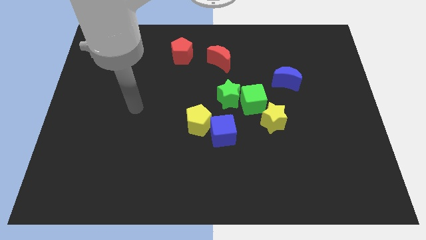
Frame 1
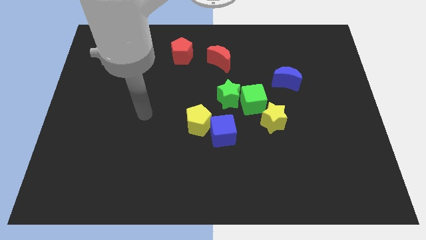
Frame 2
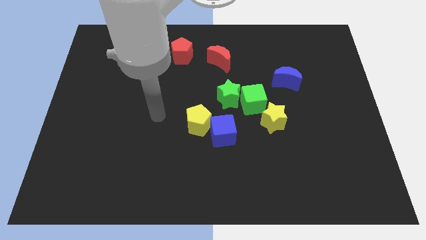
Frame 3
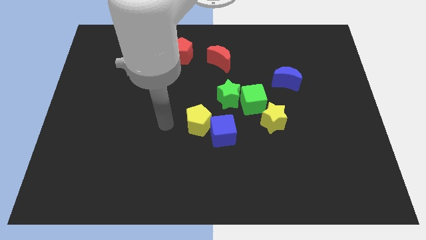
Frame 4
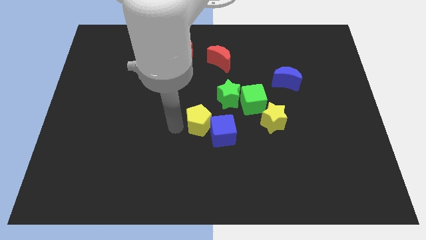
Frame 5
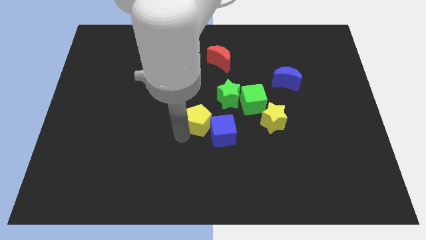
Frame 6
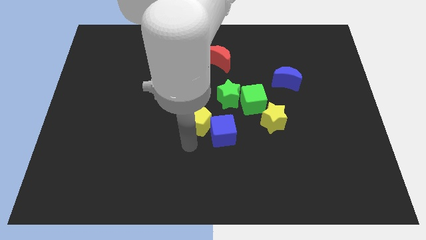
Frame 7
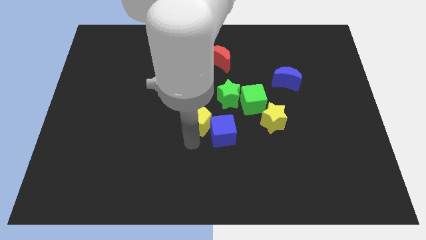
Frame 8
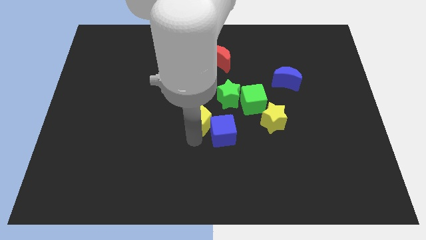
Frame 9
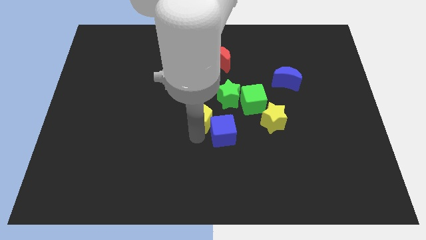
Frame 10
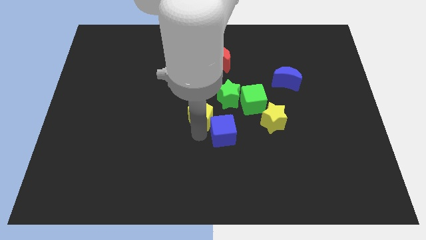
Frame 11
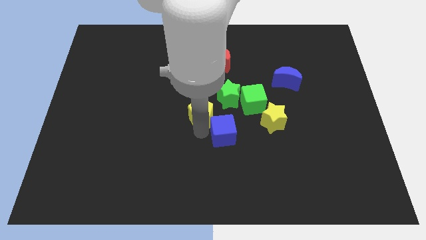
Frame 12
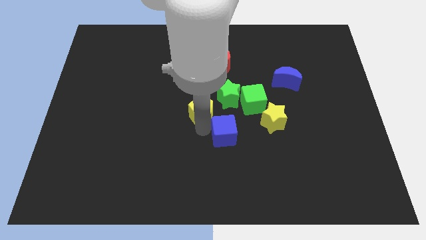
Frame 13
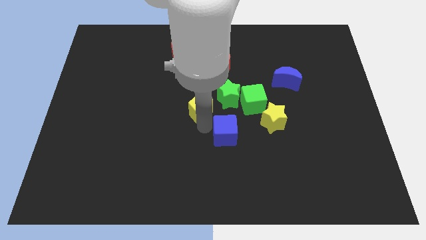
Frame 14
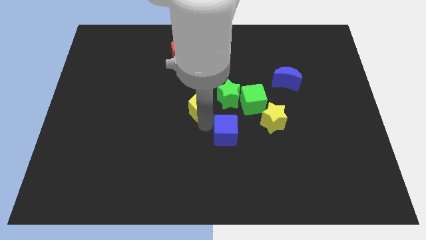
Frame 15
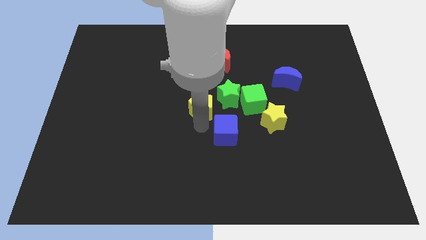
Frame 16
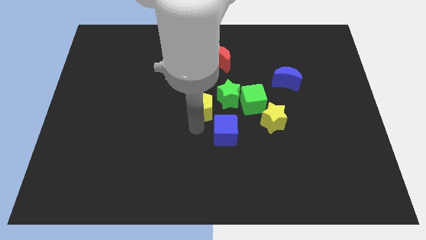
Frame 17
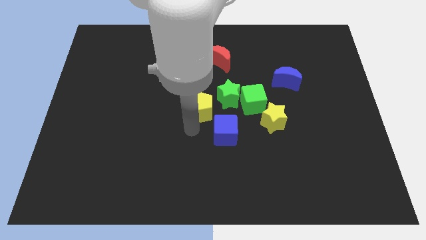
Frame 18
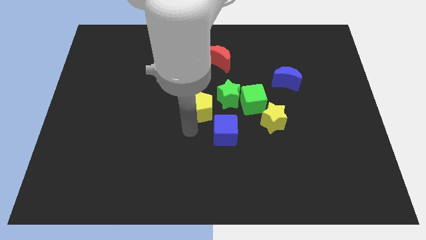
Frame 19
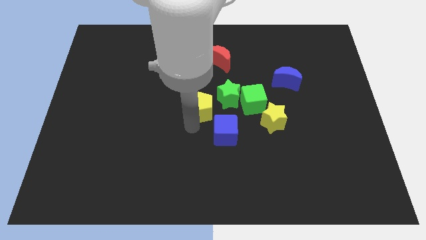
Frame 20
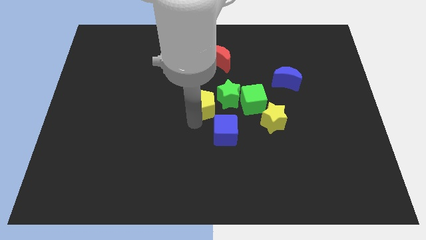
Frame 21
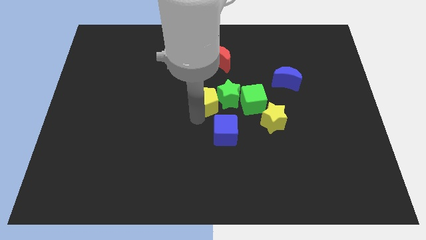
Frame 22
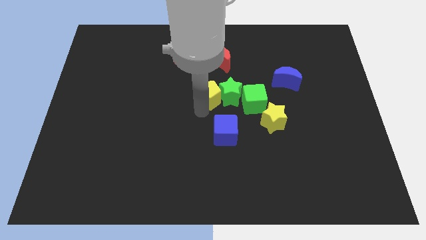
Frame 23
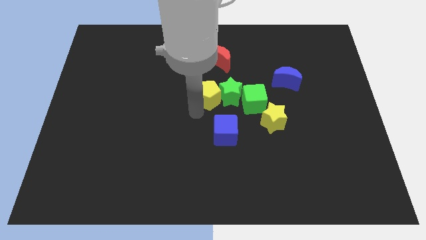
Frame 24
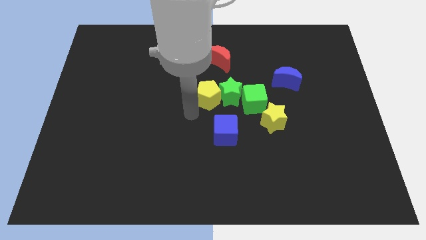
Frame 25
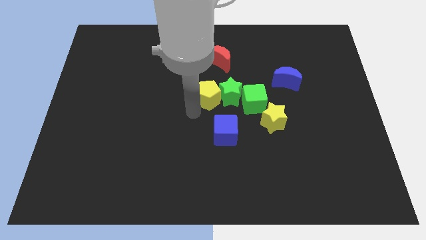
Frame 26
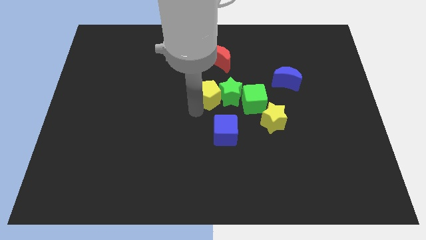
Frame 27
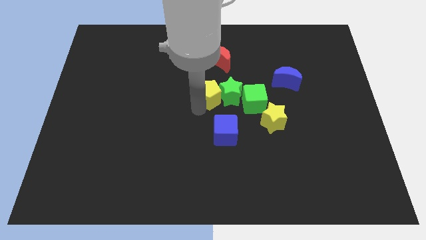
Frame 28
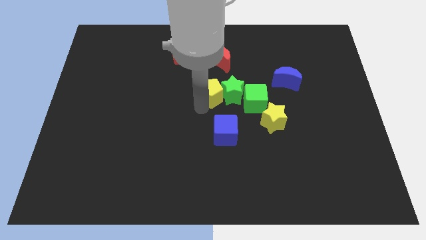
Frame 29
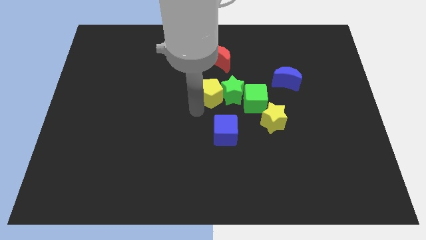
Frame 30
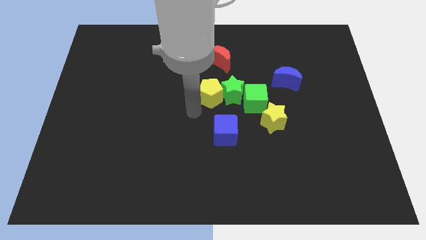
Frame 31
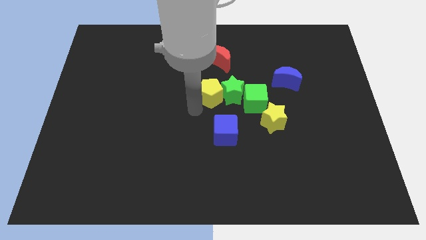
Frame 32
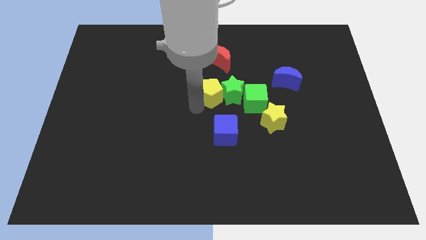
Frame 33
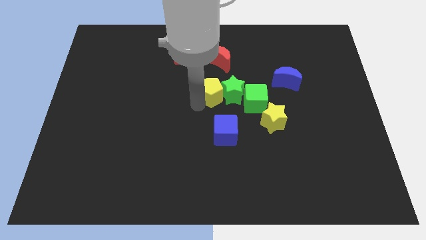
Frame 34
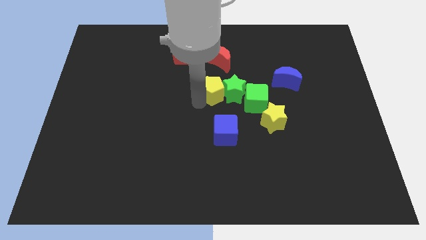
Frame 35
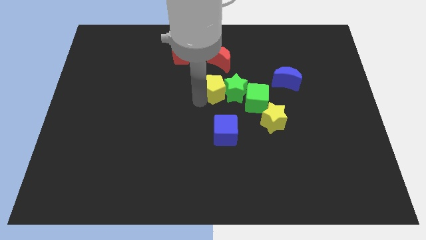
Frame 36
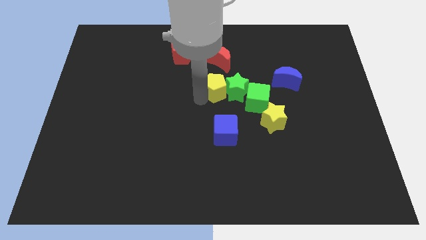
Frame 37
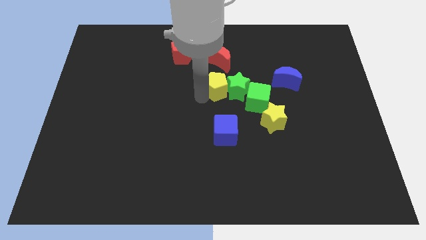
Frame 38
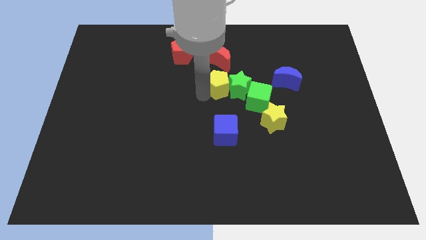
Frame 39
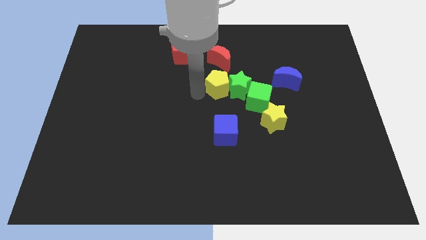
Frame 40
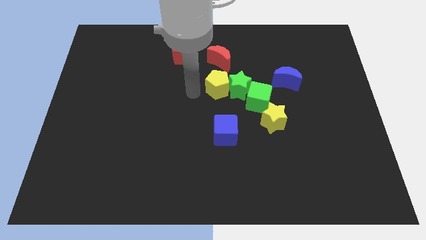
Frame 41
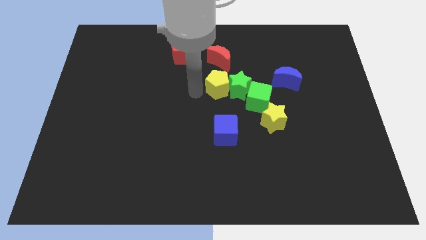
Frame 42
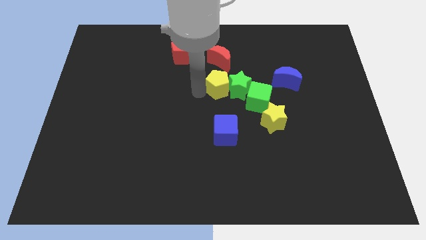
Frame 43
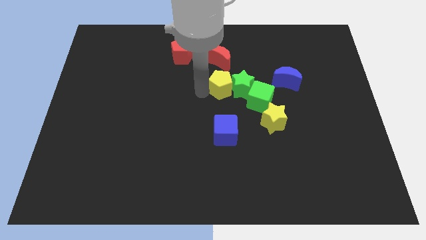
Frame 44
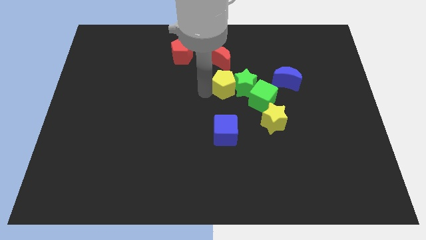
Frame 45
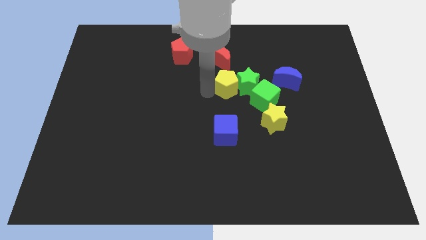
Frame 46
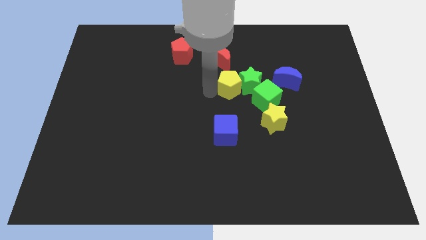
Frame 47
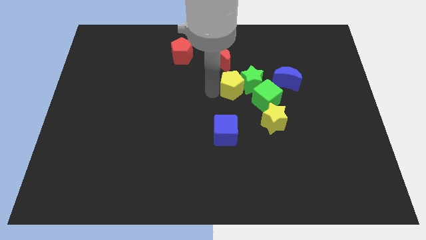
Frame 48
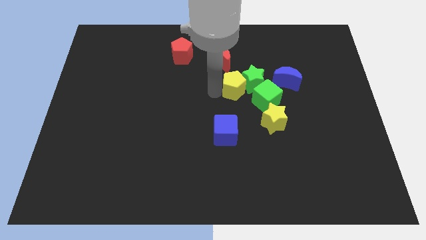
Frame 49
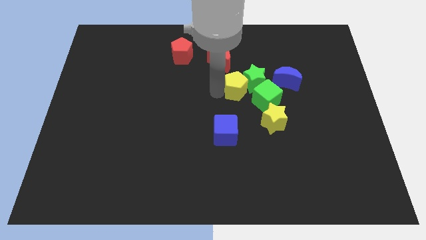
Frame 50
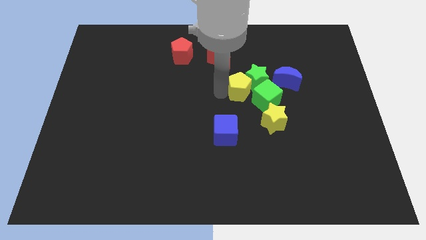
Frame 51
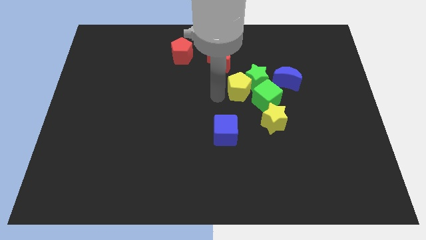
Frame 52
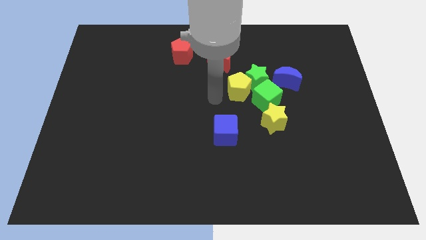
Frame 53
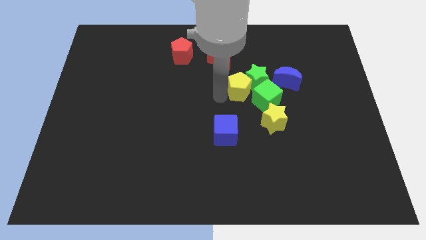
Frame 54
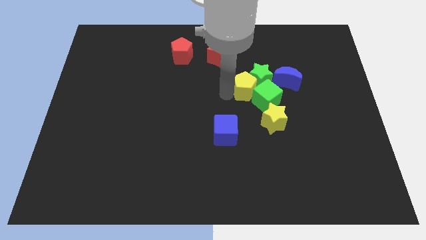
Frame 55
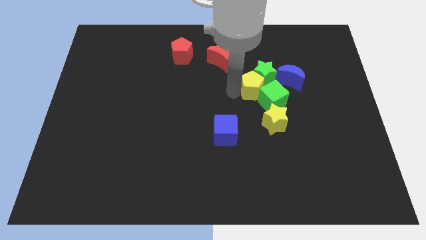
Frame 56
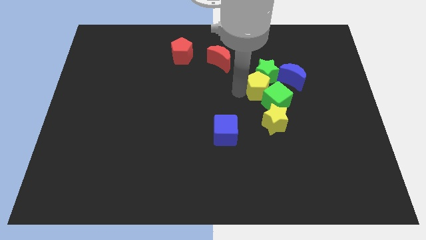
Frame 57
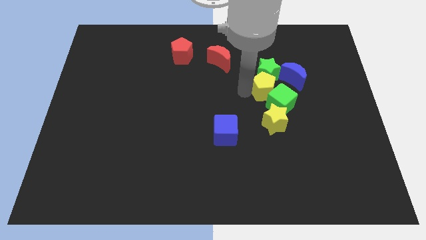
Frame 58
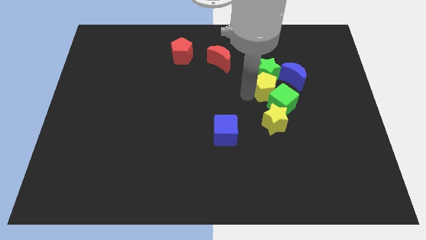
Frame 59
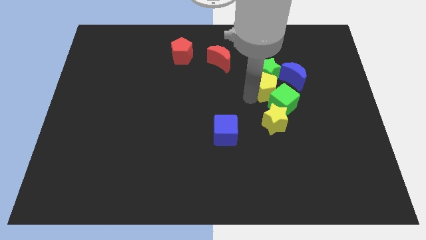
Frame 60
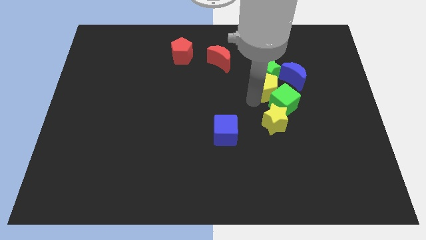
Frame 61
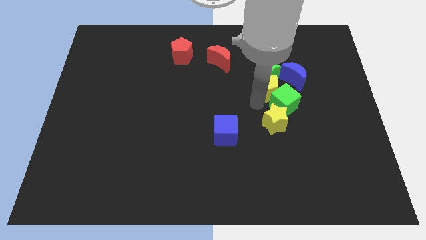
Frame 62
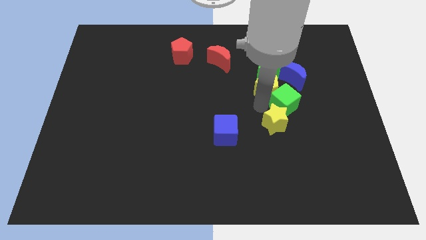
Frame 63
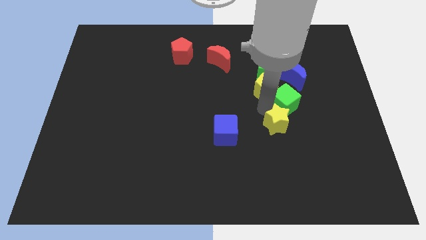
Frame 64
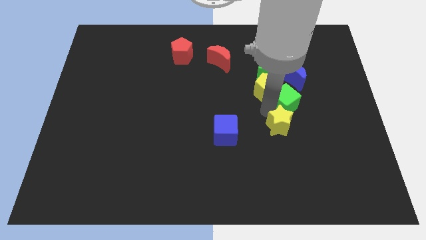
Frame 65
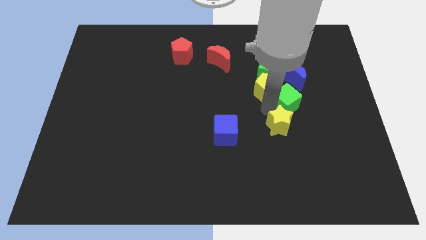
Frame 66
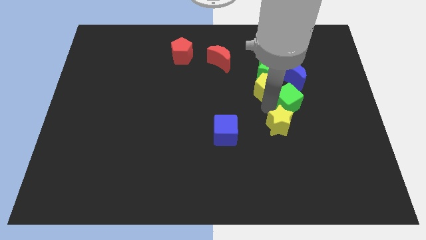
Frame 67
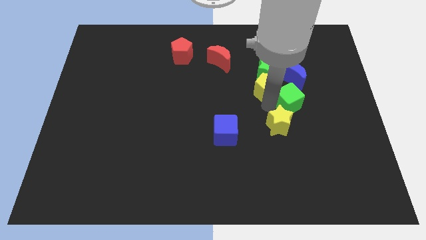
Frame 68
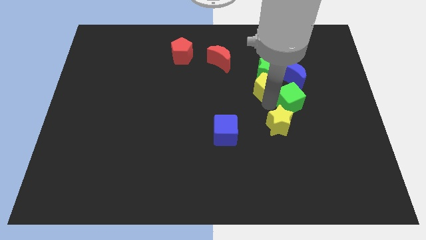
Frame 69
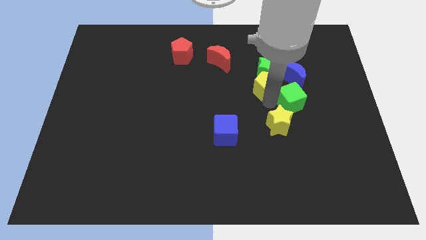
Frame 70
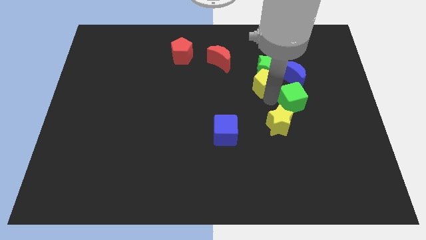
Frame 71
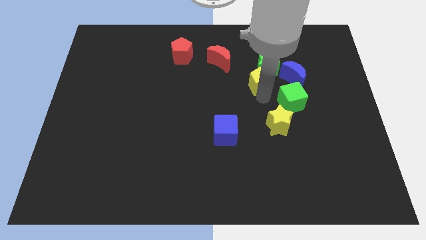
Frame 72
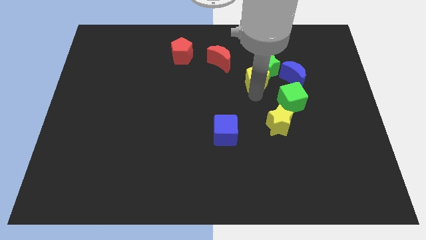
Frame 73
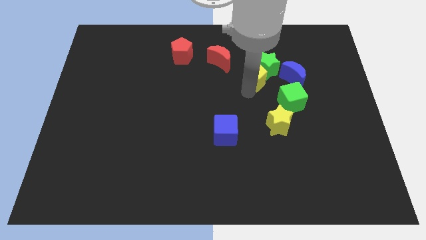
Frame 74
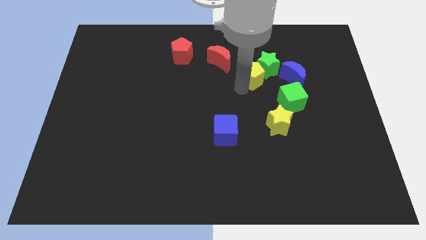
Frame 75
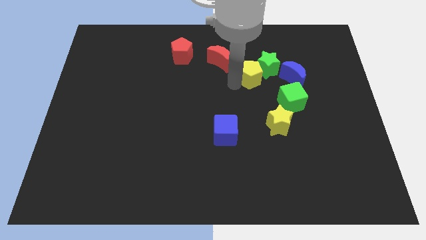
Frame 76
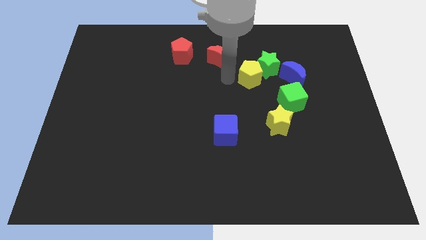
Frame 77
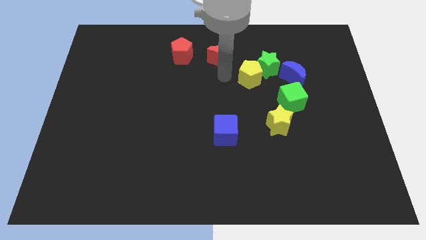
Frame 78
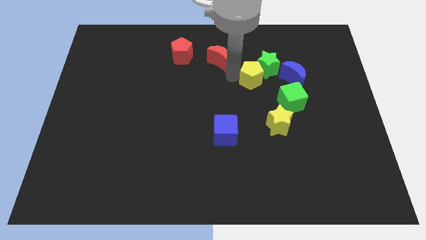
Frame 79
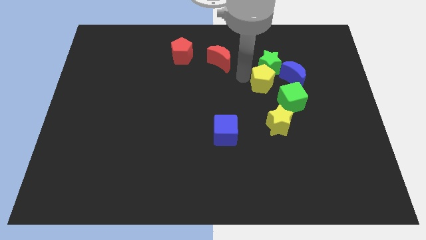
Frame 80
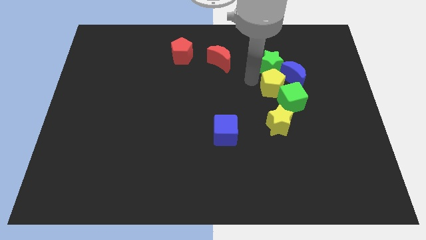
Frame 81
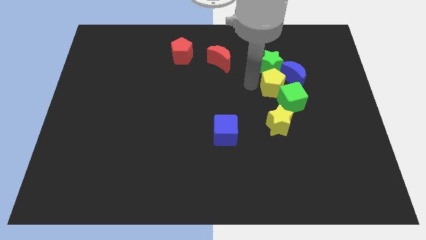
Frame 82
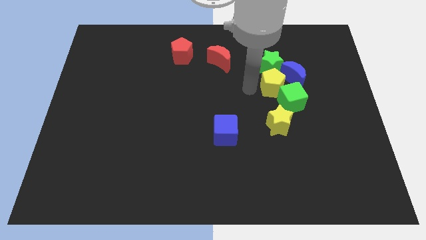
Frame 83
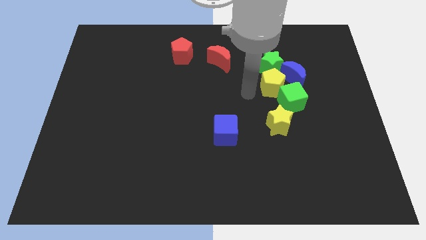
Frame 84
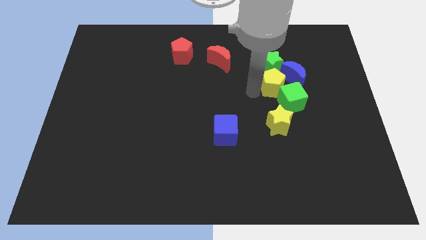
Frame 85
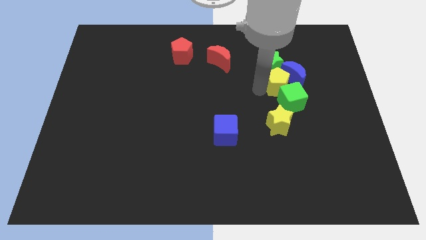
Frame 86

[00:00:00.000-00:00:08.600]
slide the yellow pentagon next to the blue moon
